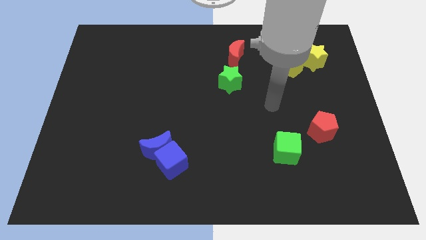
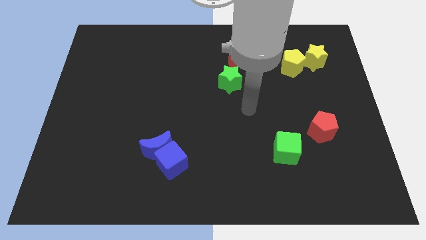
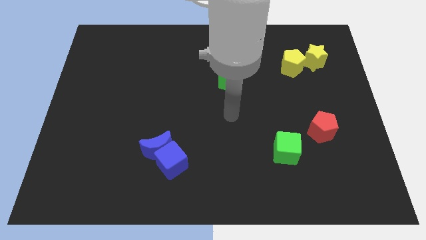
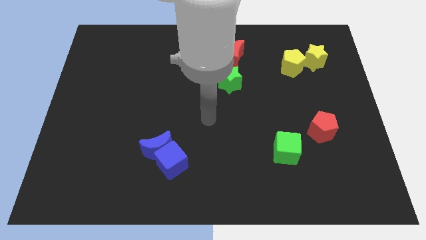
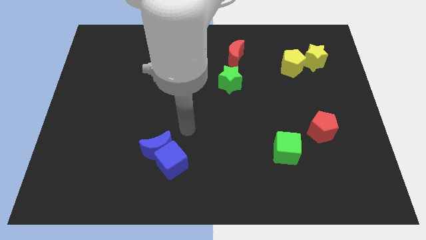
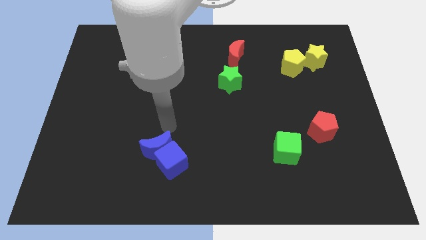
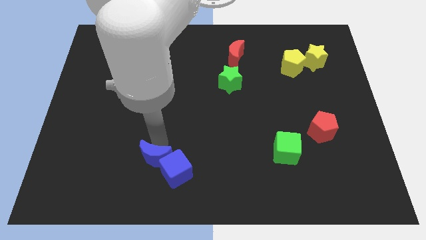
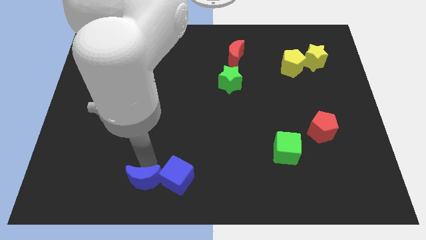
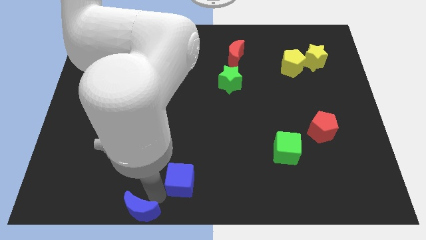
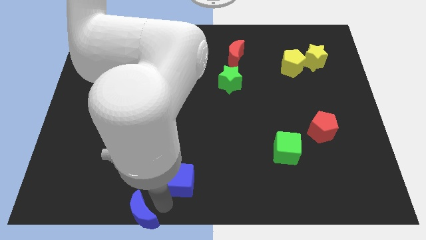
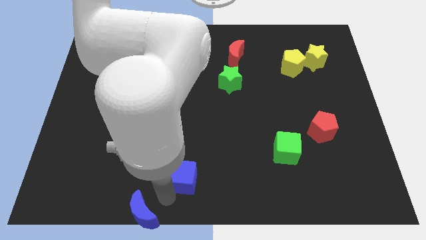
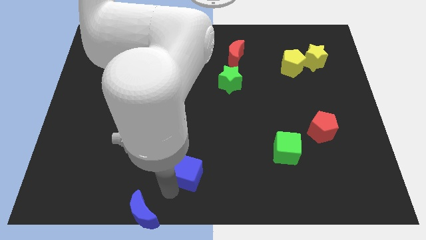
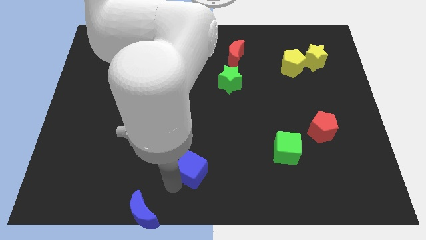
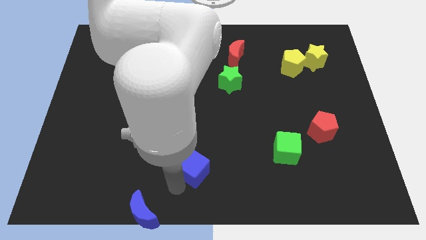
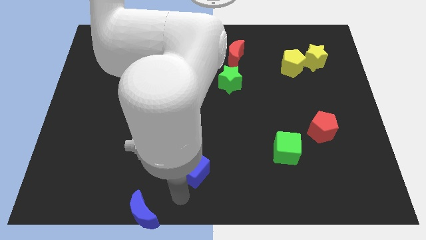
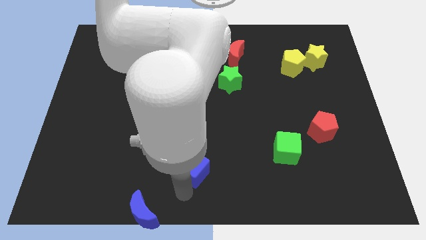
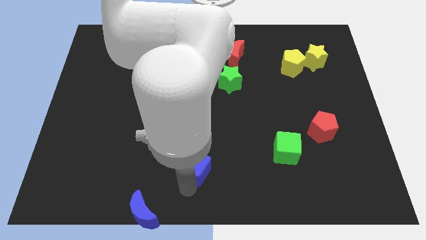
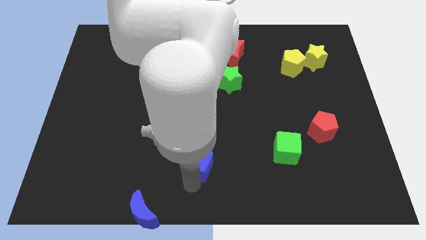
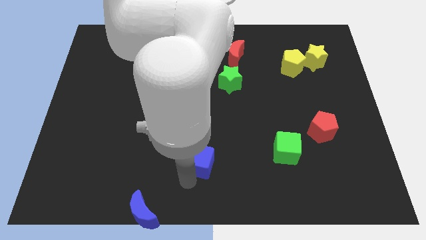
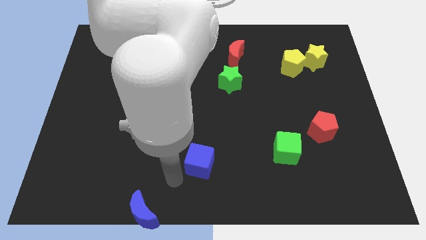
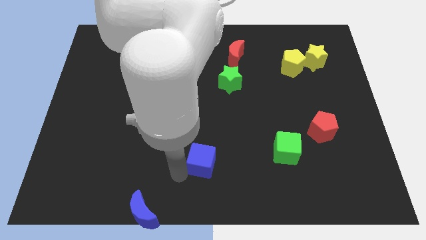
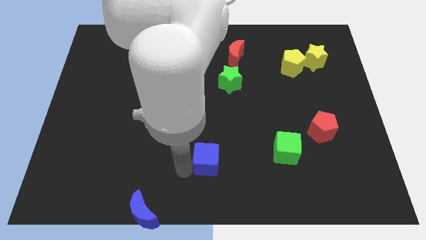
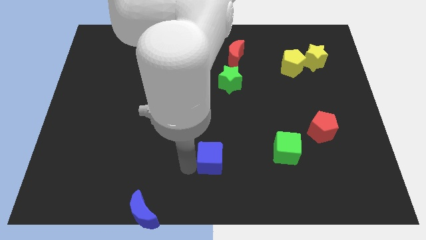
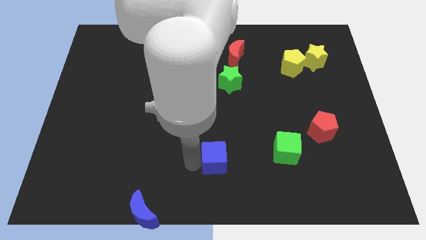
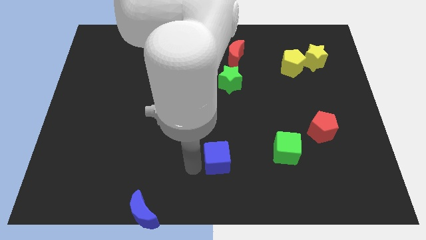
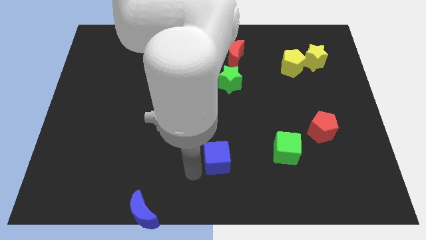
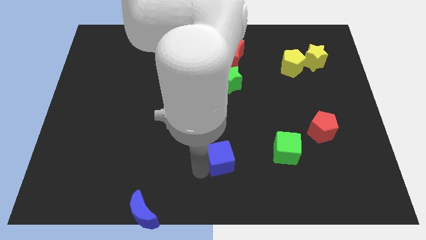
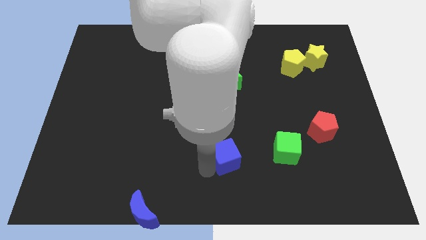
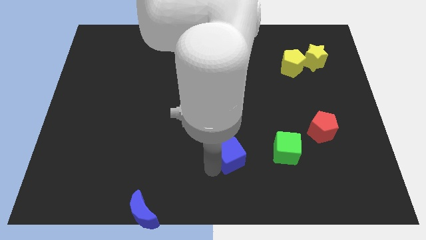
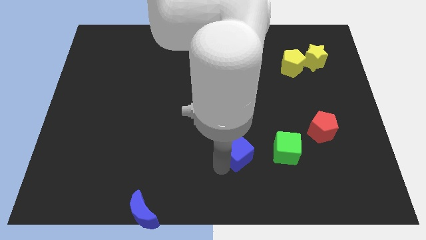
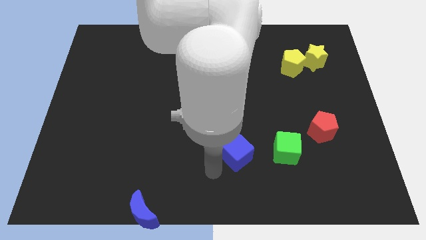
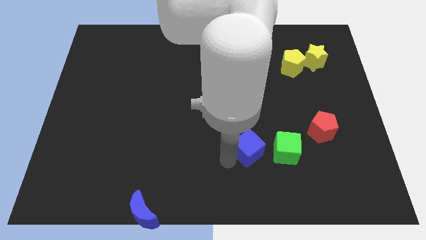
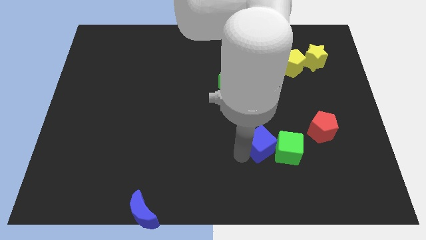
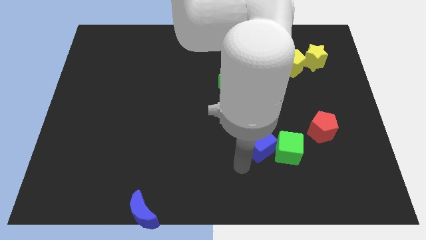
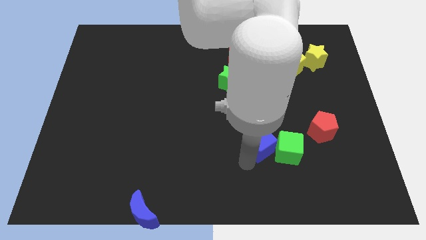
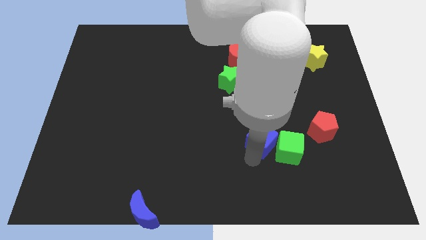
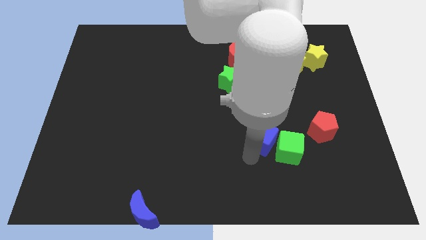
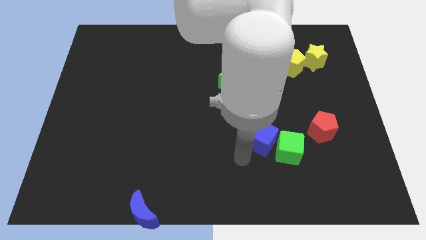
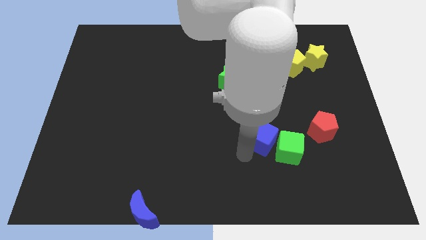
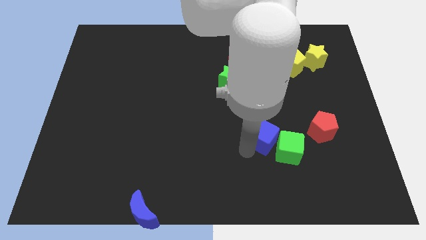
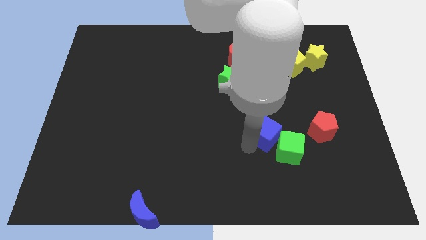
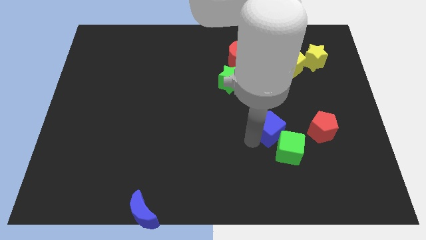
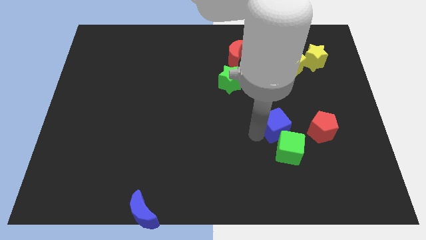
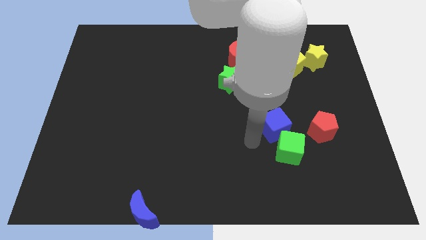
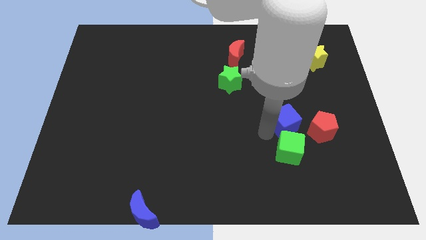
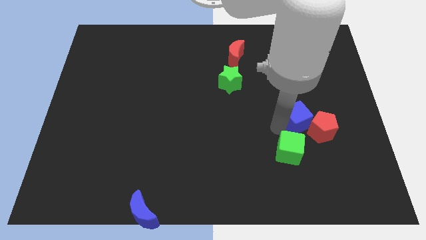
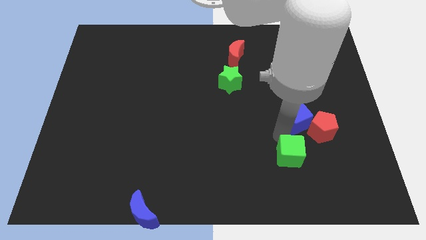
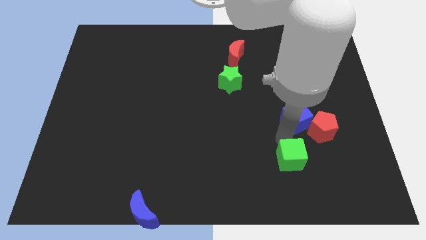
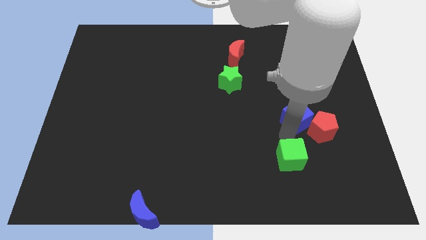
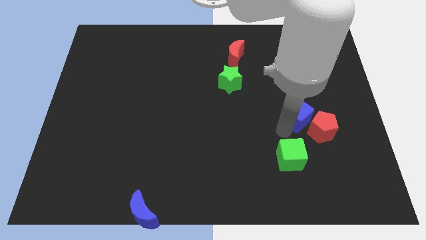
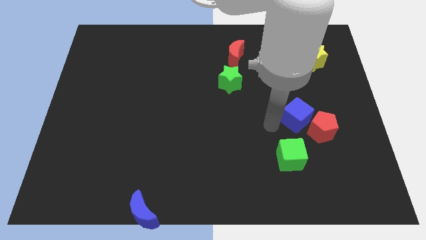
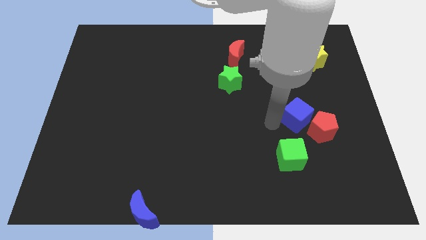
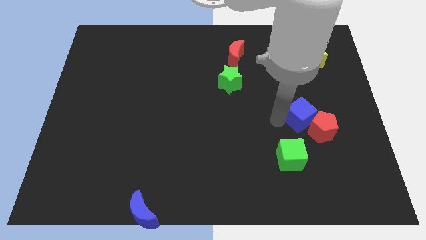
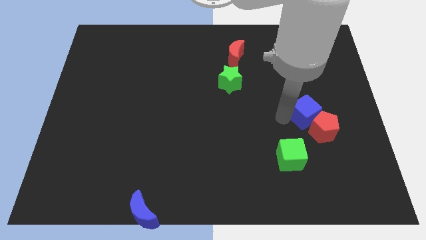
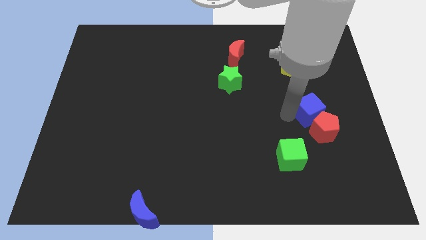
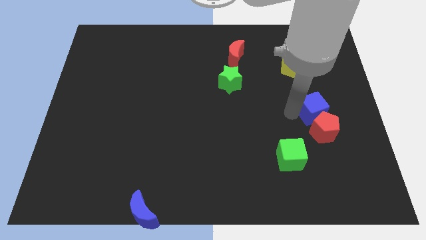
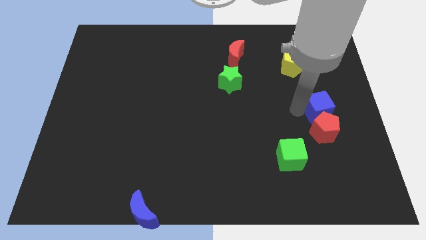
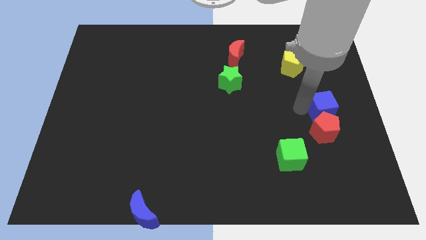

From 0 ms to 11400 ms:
move the blue cube to the center right

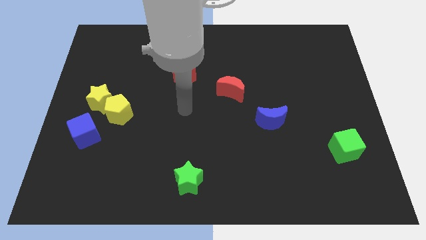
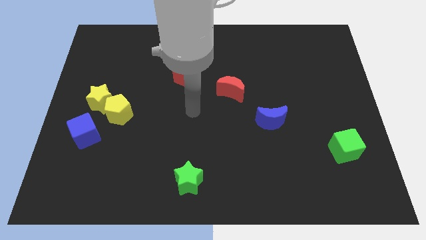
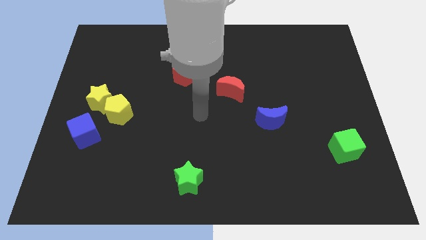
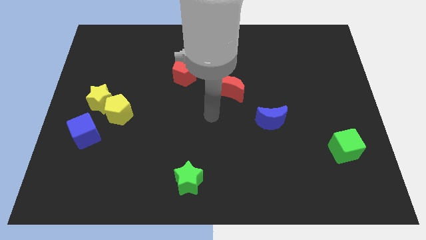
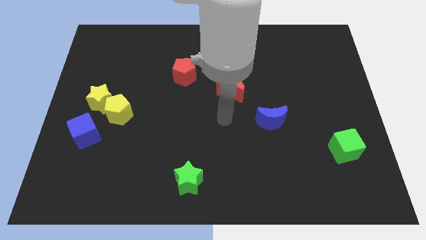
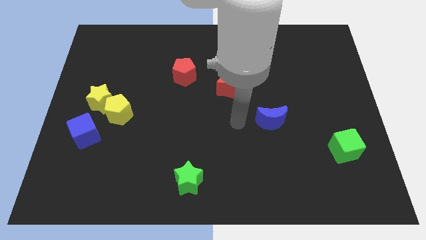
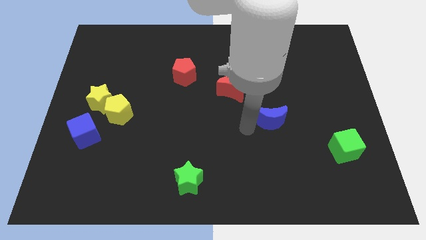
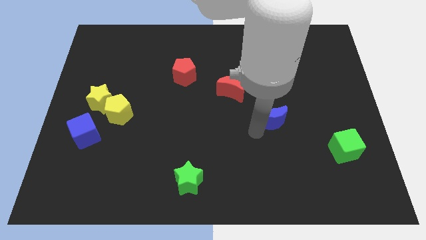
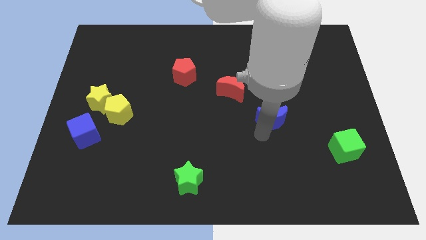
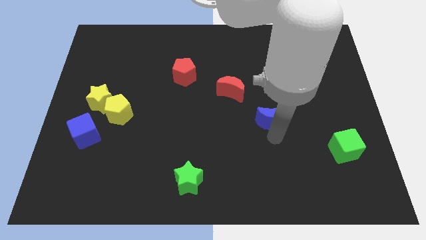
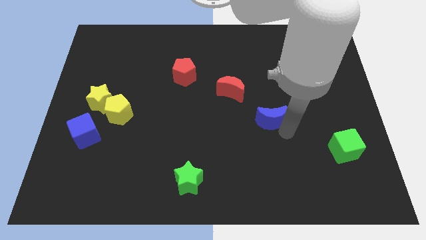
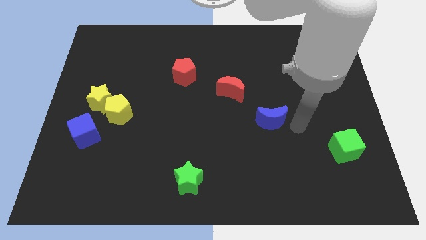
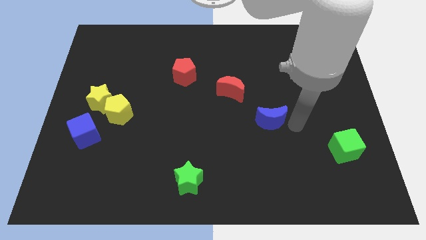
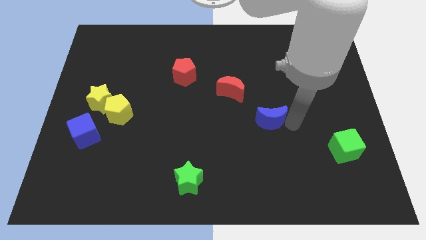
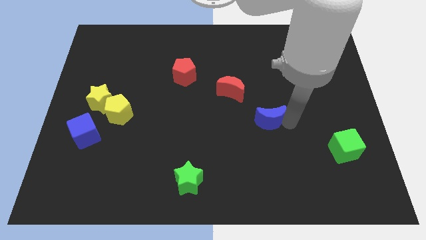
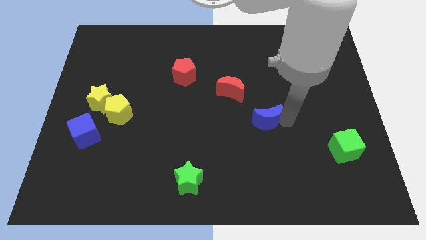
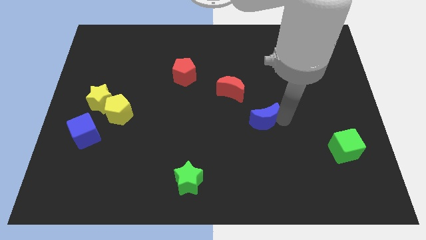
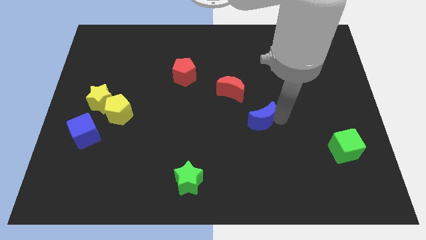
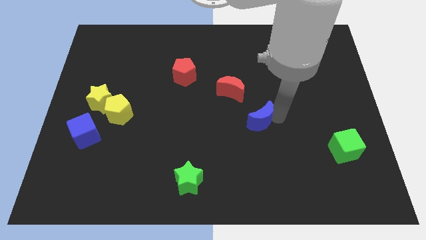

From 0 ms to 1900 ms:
push the blue moon to the middle

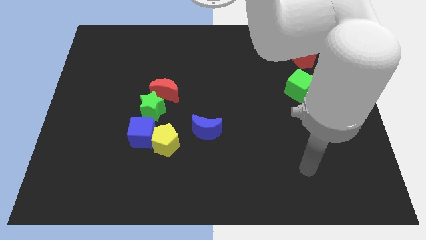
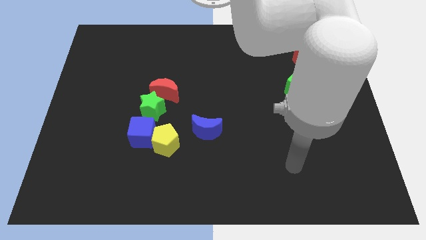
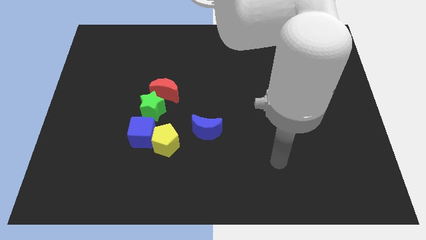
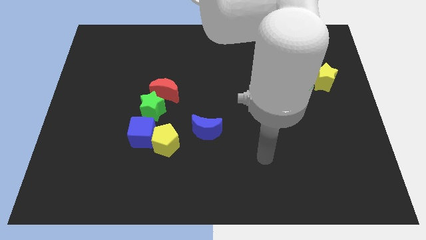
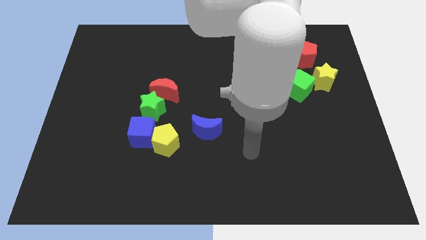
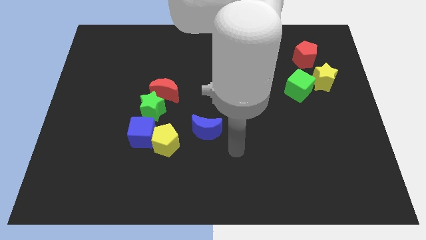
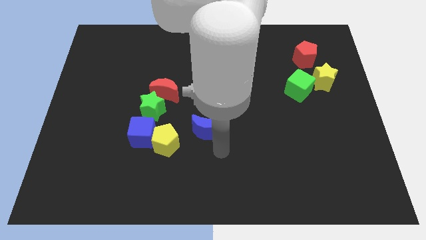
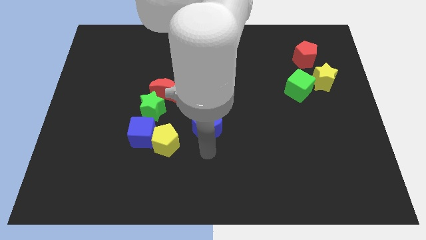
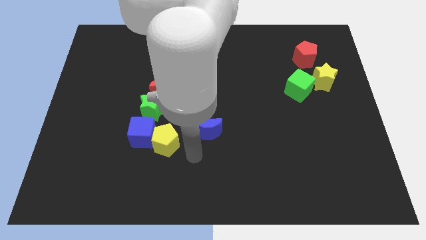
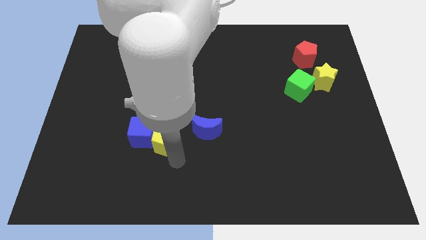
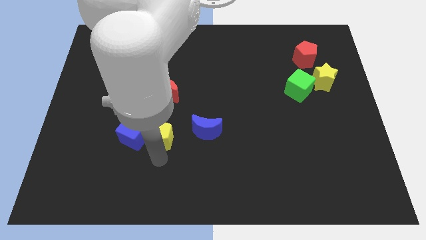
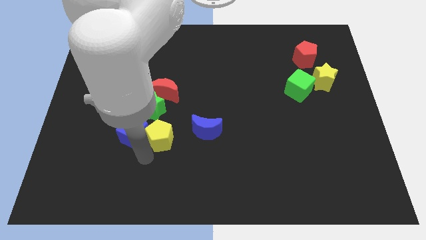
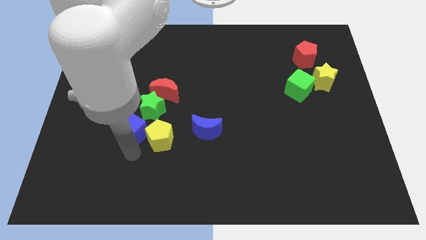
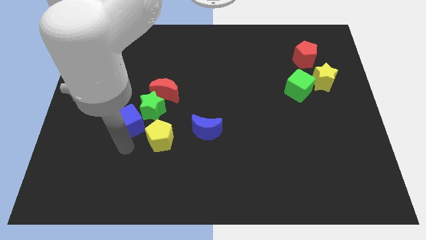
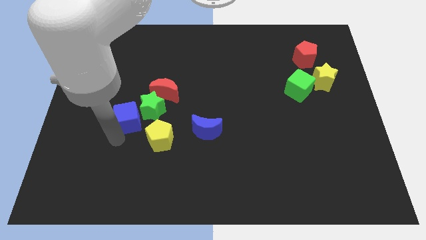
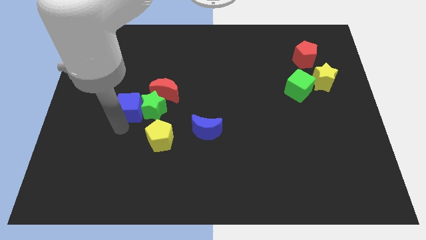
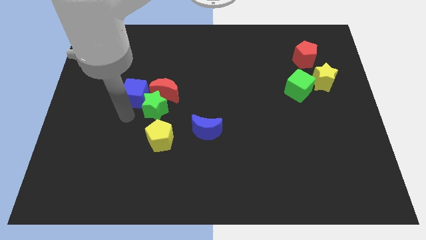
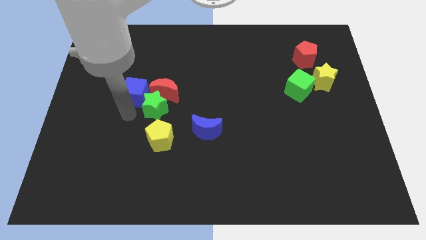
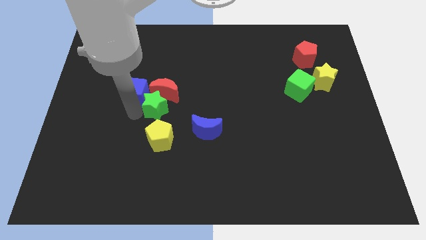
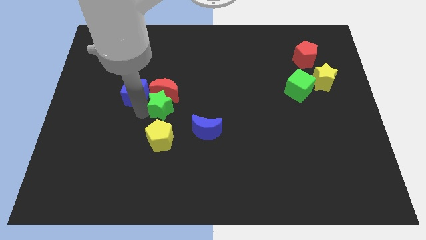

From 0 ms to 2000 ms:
move the green star to the middle
